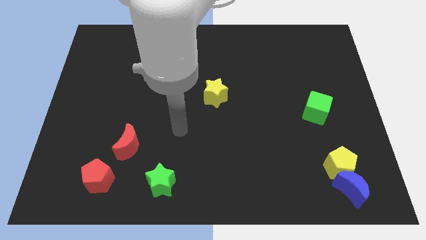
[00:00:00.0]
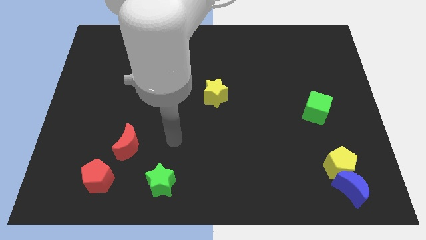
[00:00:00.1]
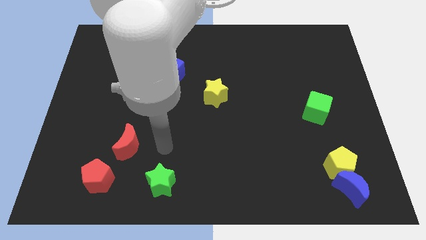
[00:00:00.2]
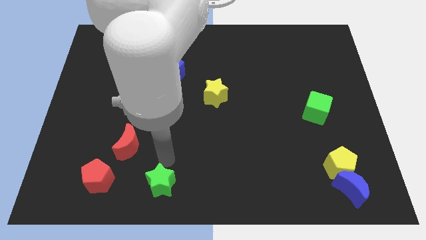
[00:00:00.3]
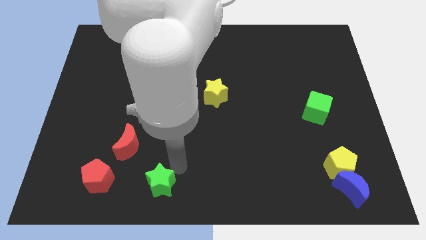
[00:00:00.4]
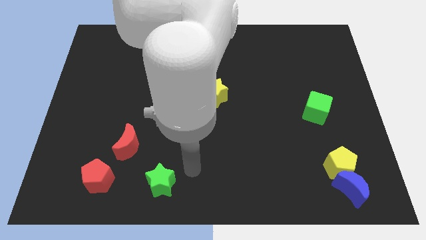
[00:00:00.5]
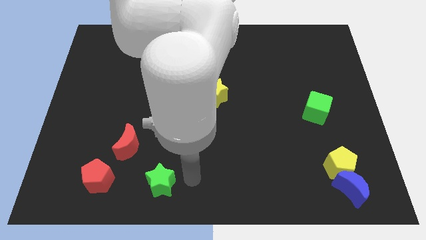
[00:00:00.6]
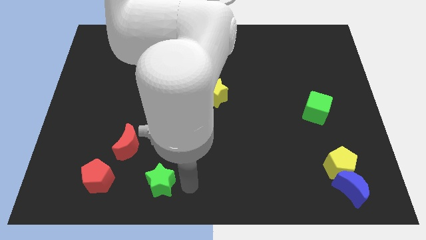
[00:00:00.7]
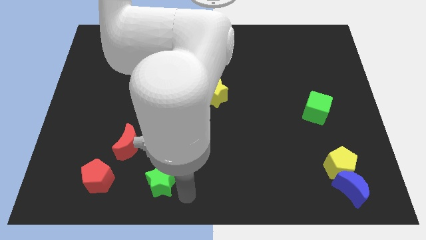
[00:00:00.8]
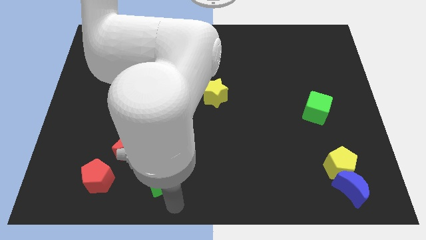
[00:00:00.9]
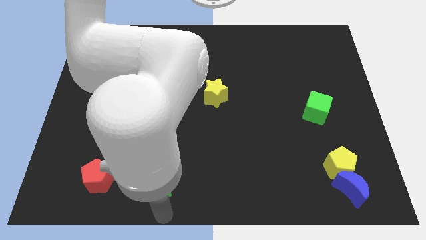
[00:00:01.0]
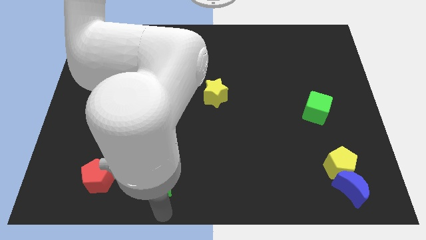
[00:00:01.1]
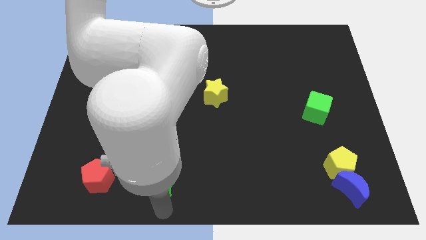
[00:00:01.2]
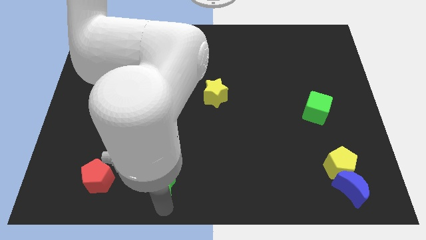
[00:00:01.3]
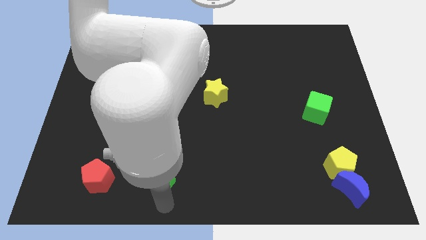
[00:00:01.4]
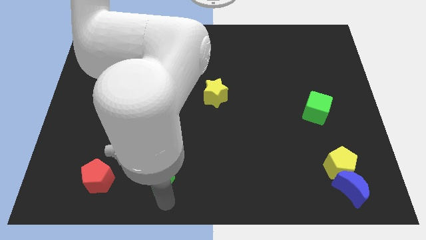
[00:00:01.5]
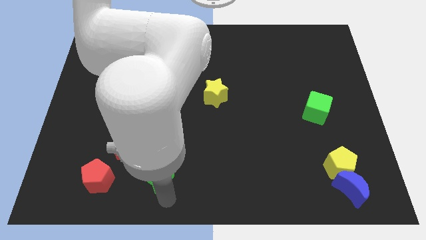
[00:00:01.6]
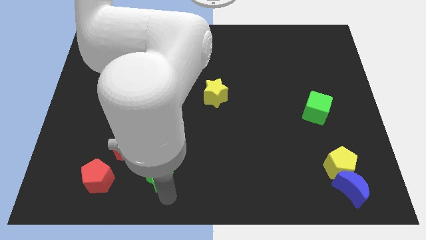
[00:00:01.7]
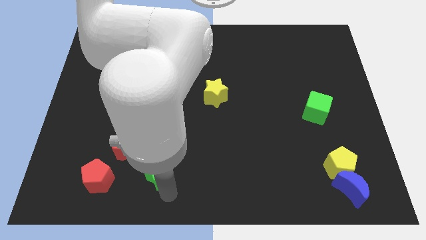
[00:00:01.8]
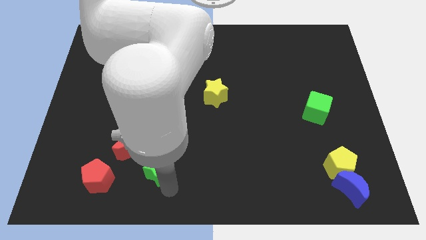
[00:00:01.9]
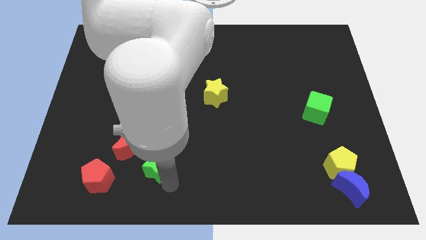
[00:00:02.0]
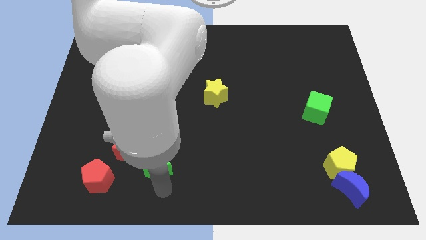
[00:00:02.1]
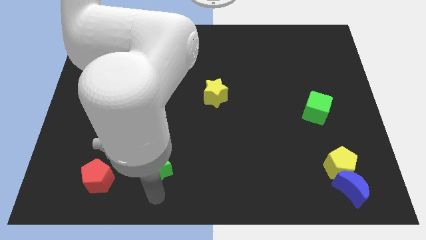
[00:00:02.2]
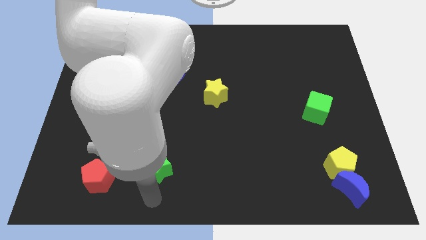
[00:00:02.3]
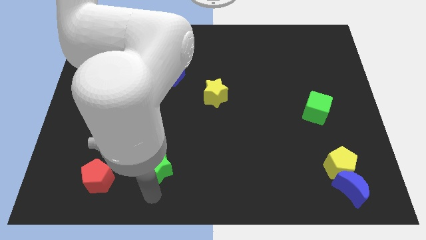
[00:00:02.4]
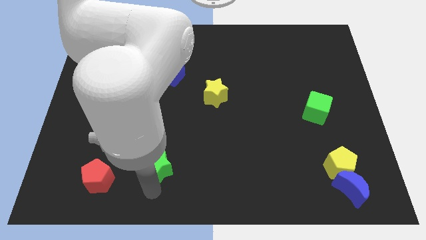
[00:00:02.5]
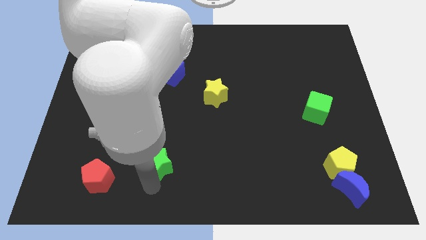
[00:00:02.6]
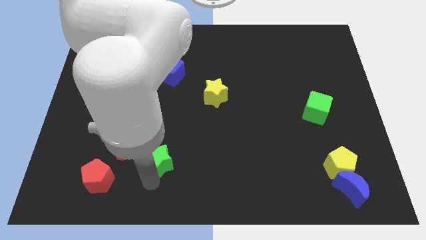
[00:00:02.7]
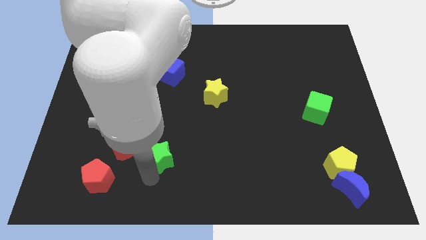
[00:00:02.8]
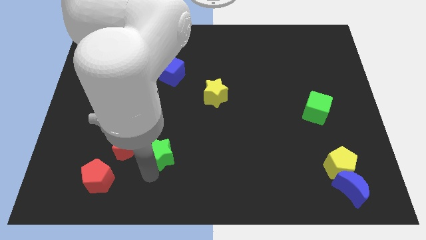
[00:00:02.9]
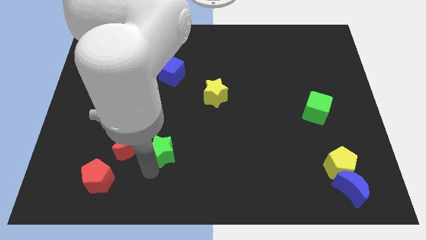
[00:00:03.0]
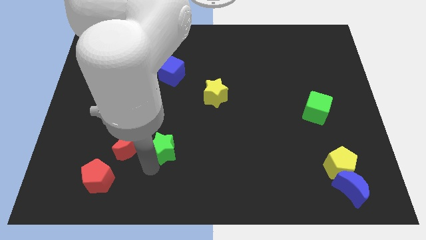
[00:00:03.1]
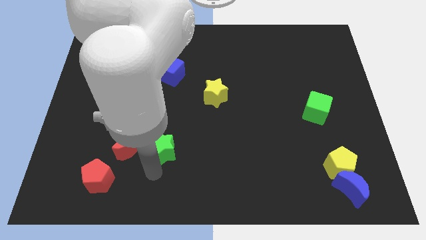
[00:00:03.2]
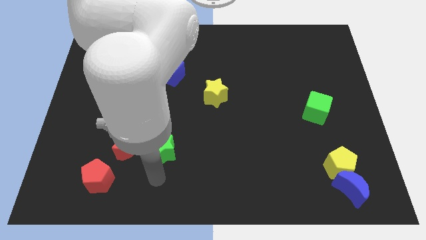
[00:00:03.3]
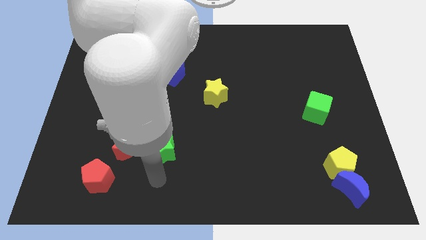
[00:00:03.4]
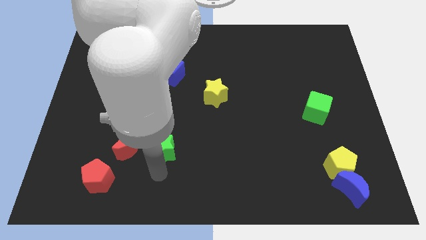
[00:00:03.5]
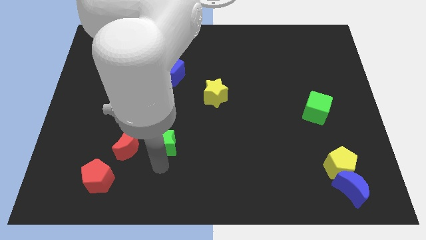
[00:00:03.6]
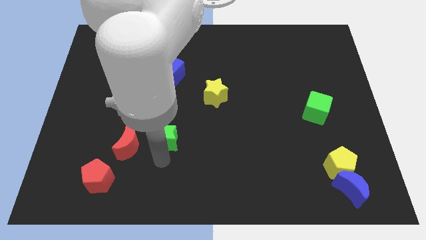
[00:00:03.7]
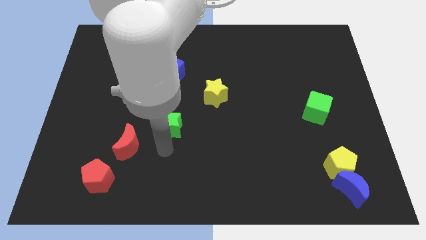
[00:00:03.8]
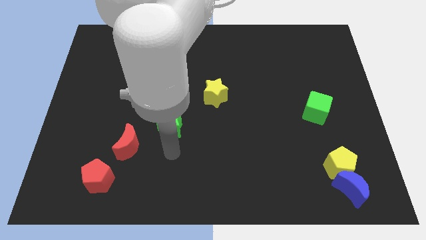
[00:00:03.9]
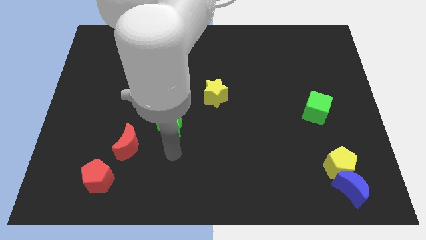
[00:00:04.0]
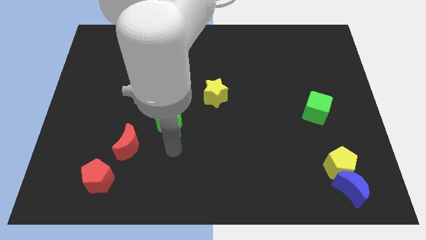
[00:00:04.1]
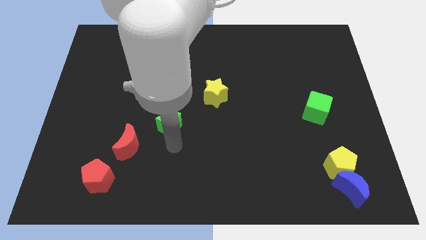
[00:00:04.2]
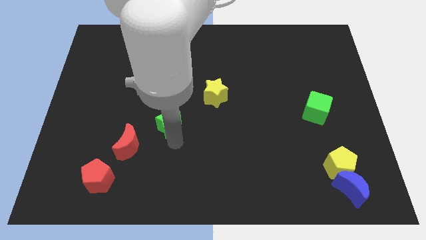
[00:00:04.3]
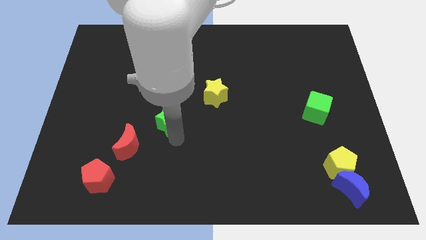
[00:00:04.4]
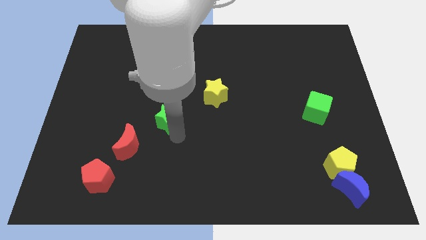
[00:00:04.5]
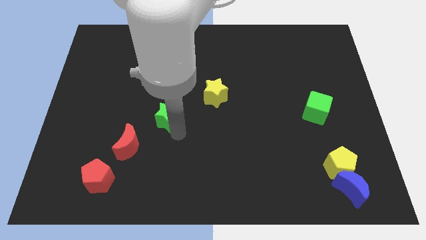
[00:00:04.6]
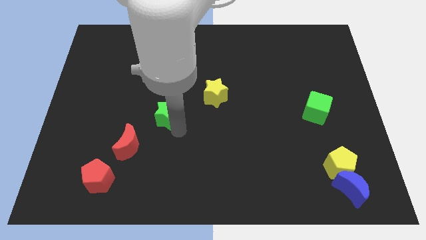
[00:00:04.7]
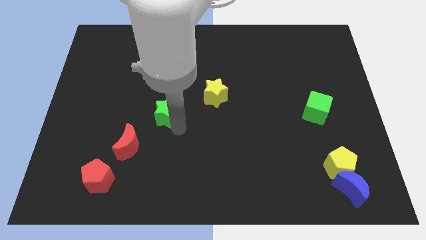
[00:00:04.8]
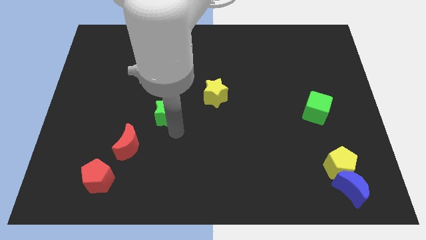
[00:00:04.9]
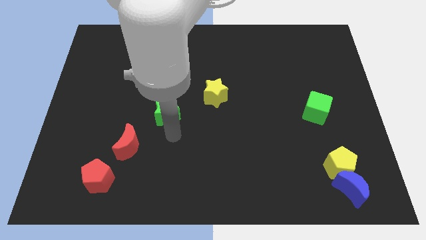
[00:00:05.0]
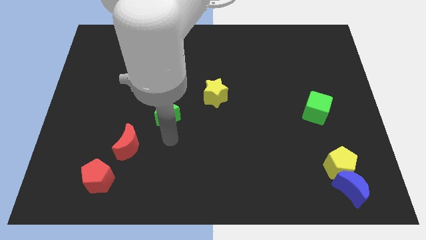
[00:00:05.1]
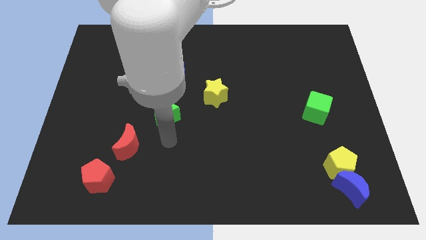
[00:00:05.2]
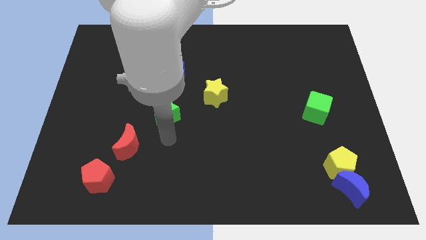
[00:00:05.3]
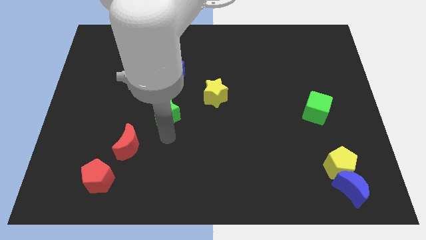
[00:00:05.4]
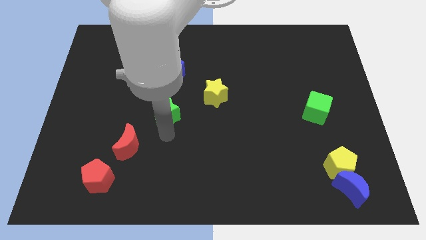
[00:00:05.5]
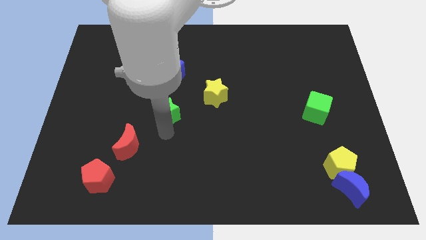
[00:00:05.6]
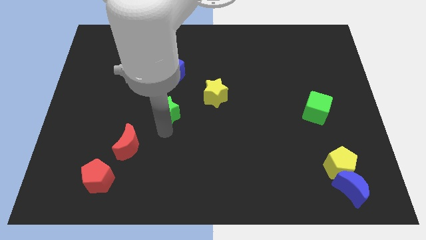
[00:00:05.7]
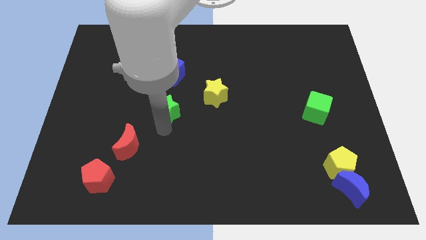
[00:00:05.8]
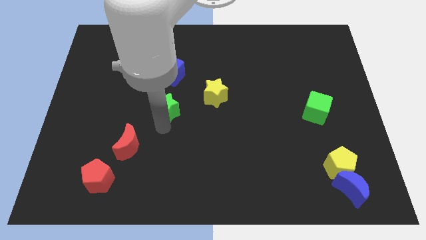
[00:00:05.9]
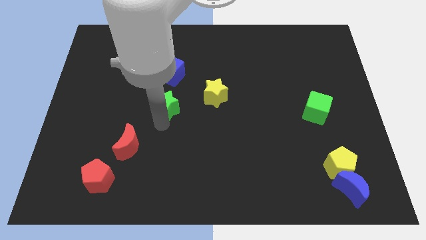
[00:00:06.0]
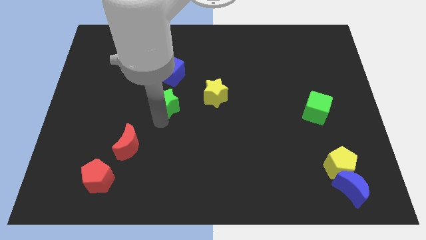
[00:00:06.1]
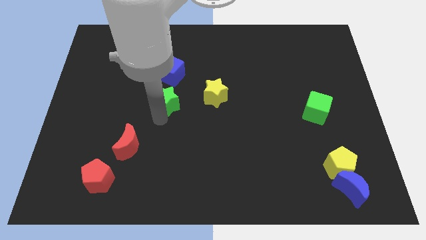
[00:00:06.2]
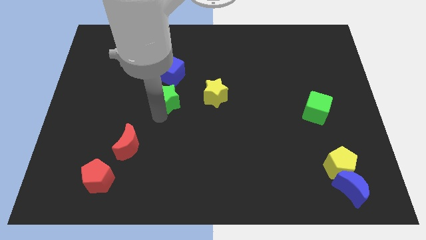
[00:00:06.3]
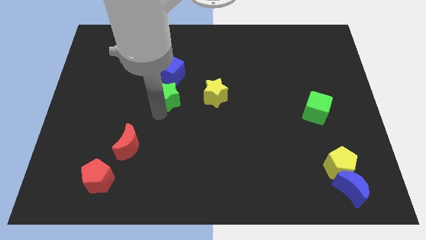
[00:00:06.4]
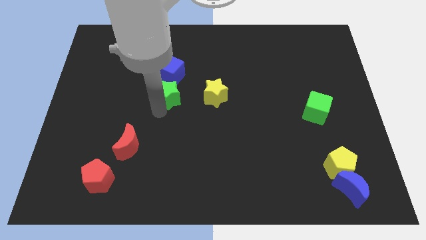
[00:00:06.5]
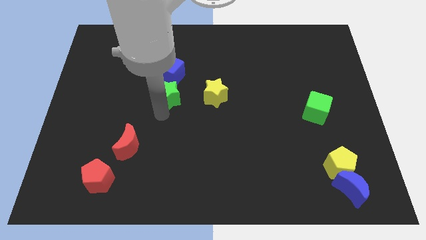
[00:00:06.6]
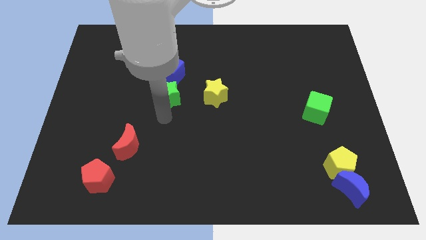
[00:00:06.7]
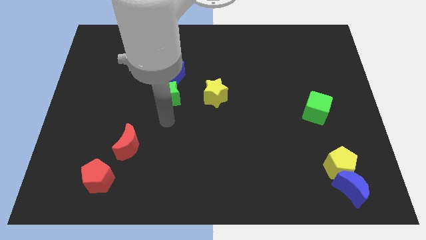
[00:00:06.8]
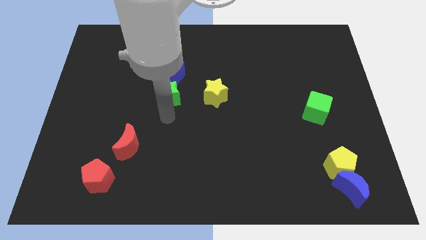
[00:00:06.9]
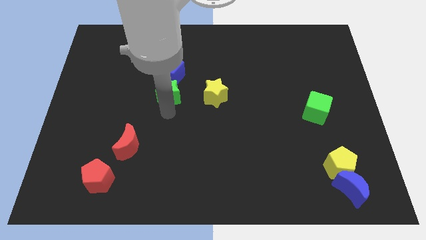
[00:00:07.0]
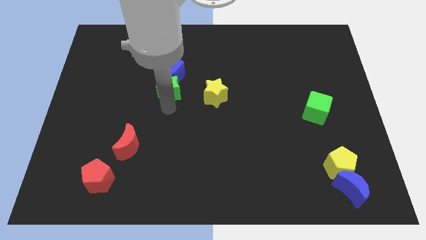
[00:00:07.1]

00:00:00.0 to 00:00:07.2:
move the green star close to the blue cube
